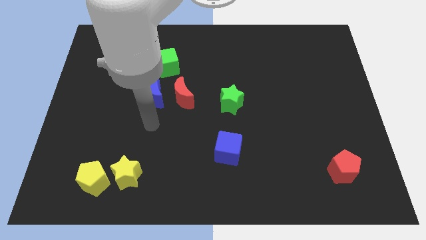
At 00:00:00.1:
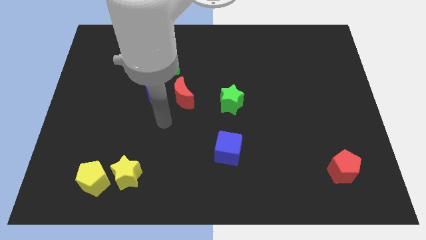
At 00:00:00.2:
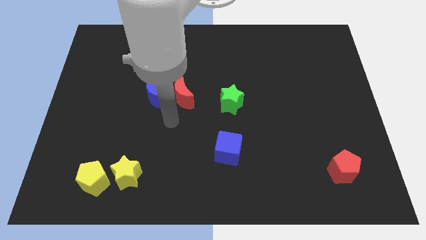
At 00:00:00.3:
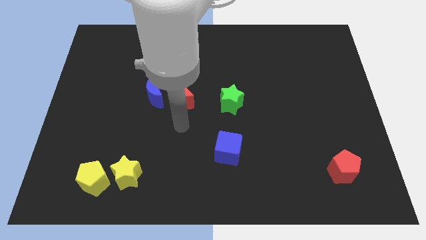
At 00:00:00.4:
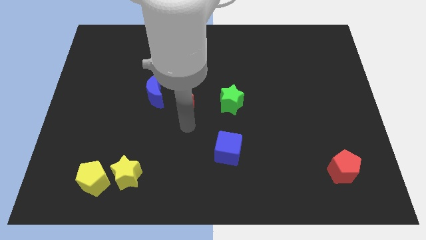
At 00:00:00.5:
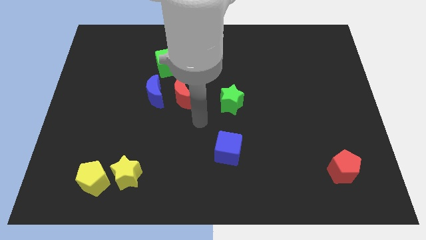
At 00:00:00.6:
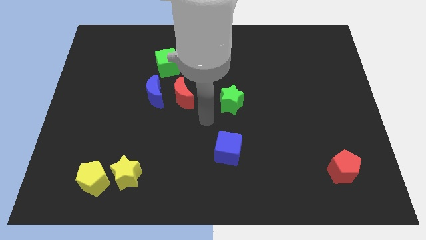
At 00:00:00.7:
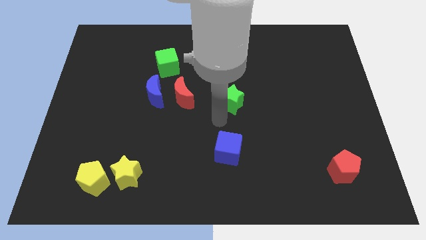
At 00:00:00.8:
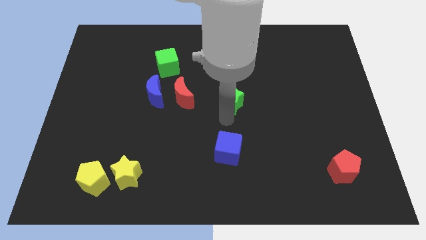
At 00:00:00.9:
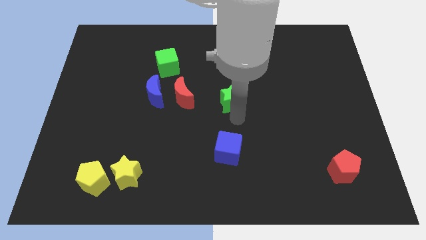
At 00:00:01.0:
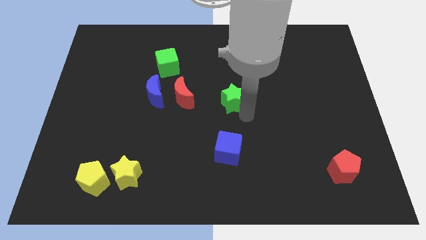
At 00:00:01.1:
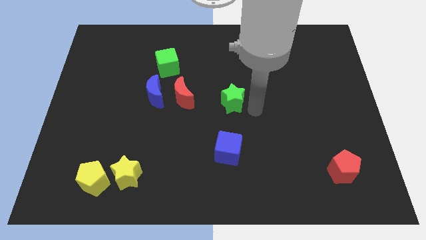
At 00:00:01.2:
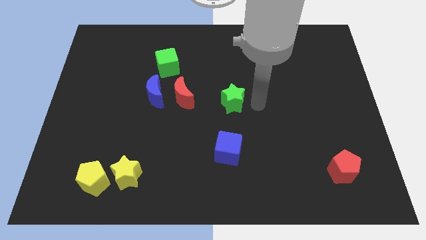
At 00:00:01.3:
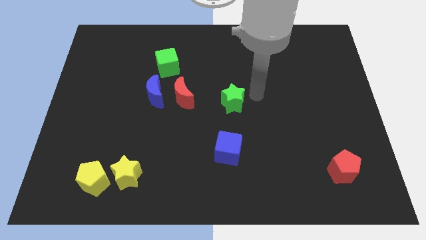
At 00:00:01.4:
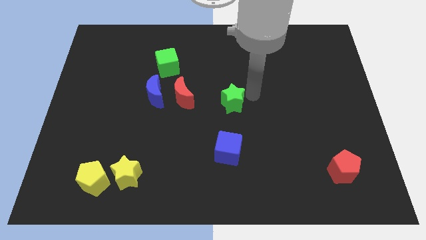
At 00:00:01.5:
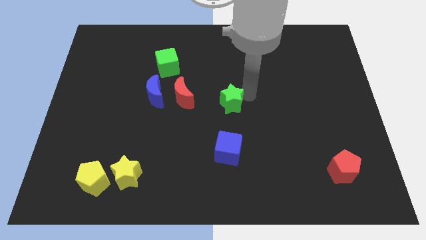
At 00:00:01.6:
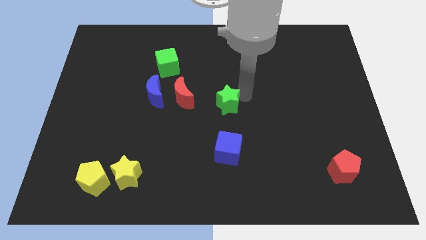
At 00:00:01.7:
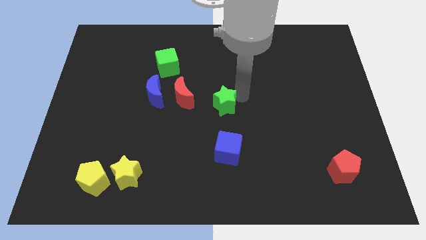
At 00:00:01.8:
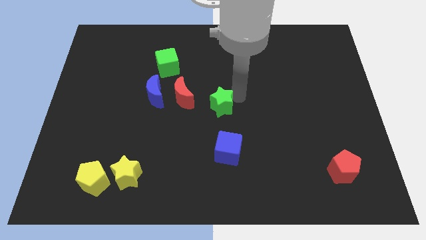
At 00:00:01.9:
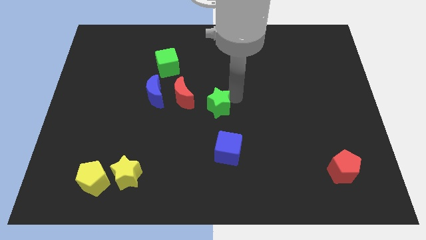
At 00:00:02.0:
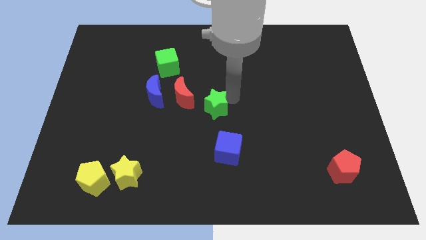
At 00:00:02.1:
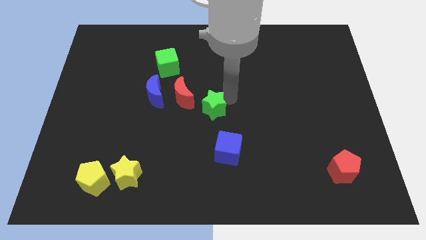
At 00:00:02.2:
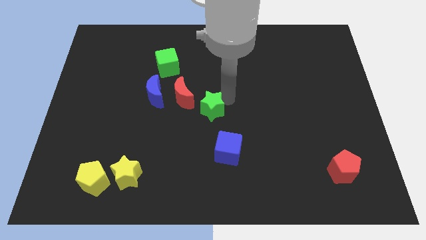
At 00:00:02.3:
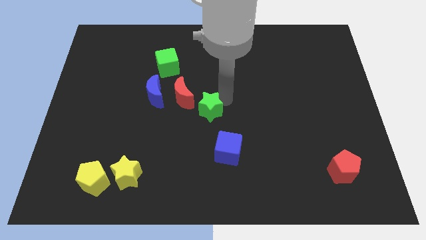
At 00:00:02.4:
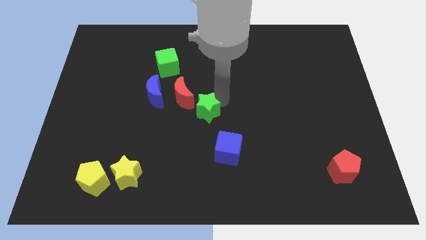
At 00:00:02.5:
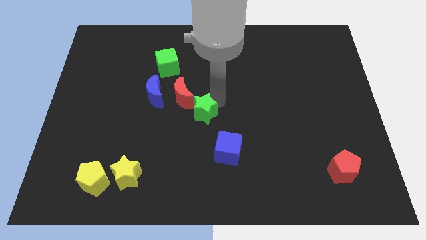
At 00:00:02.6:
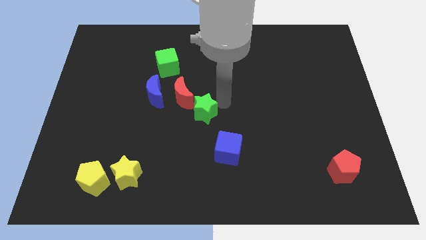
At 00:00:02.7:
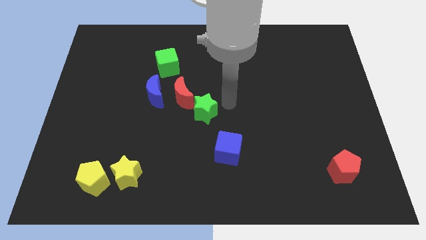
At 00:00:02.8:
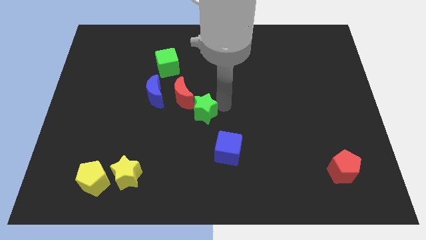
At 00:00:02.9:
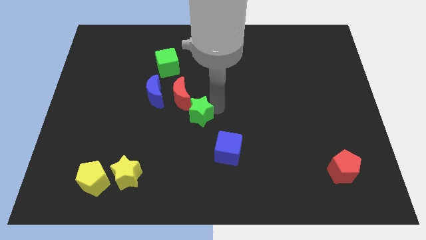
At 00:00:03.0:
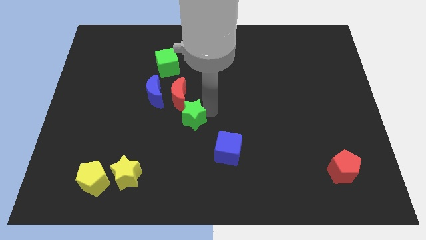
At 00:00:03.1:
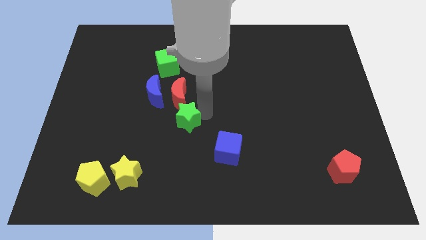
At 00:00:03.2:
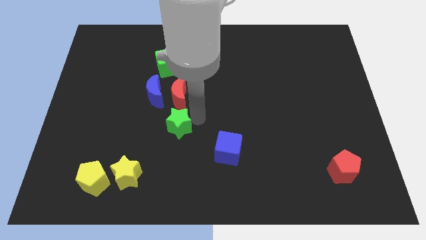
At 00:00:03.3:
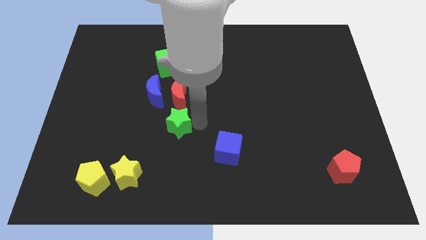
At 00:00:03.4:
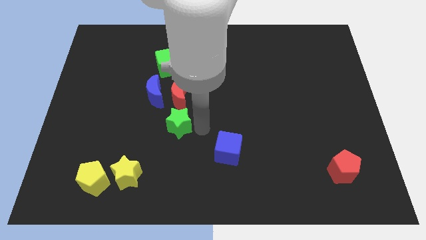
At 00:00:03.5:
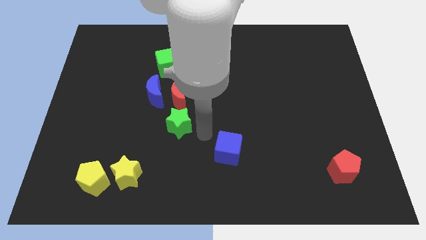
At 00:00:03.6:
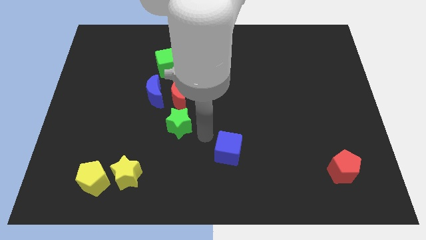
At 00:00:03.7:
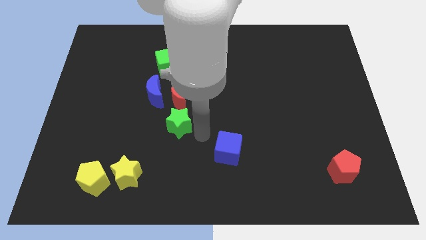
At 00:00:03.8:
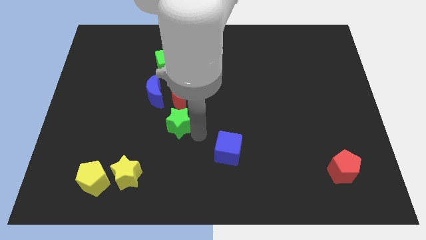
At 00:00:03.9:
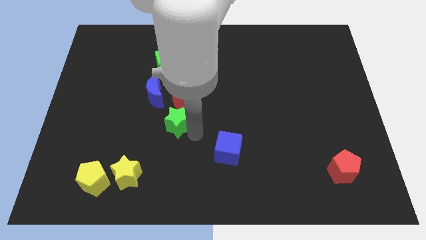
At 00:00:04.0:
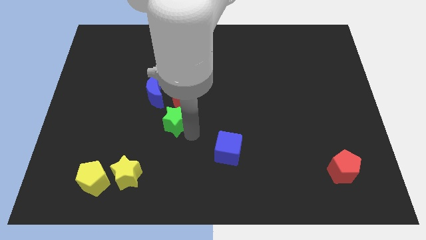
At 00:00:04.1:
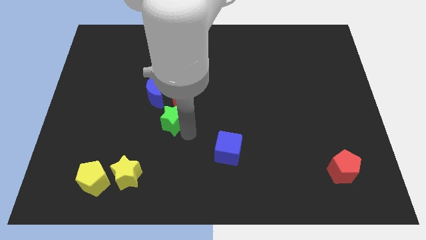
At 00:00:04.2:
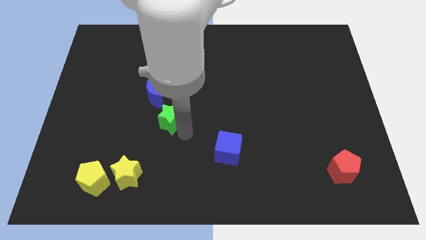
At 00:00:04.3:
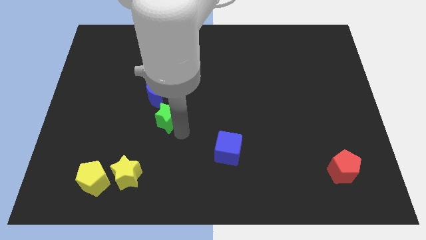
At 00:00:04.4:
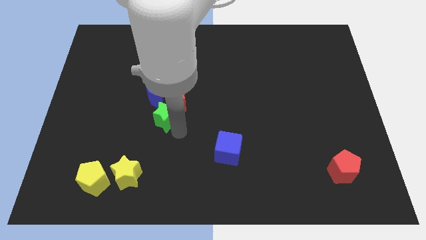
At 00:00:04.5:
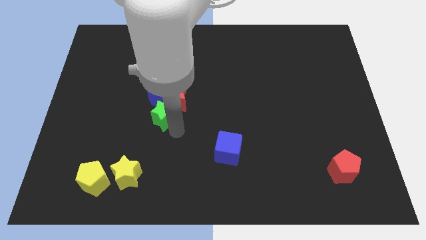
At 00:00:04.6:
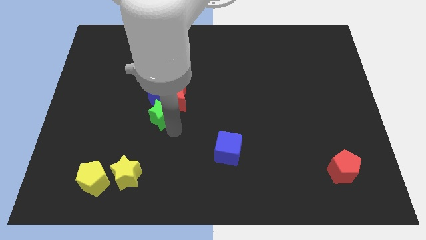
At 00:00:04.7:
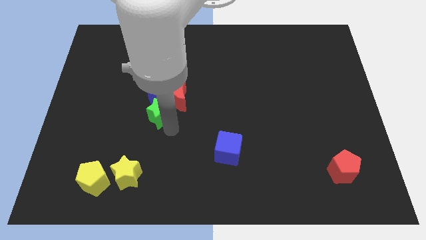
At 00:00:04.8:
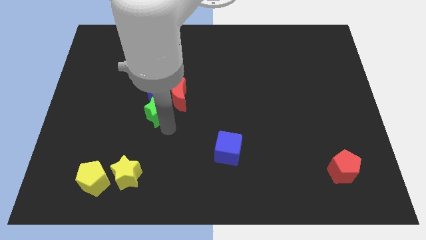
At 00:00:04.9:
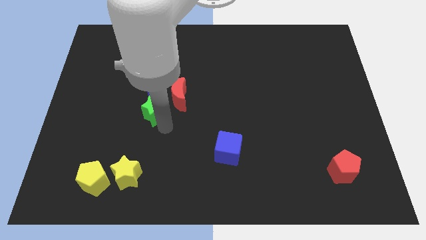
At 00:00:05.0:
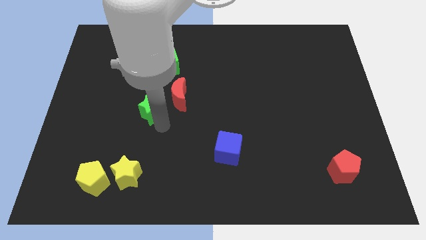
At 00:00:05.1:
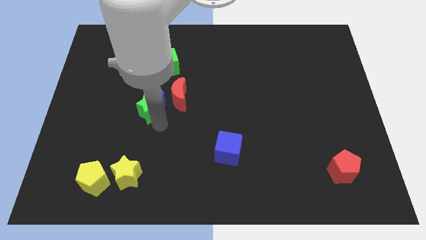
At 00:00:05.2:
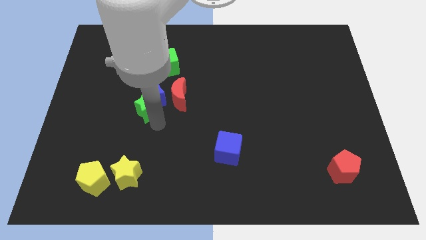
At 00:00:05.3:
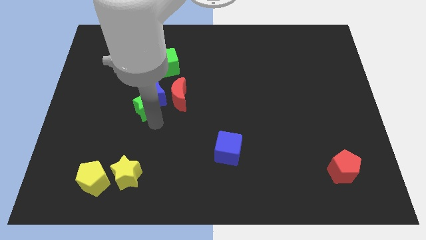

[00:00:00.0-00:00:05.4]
slide the green star left

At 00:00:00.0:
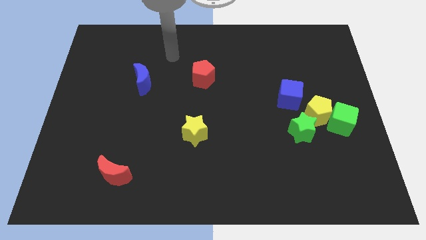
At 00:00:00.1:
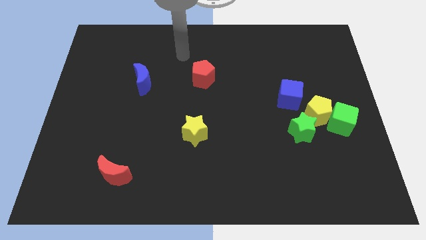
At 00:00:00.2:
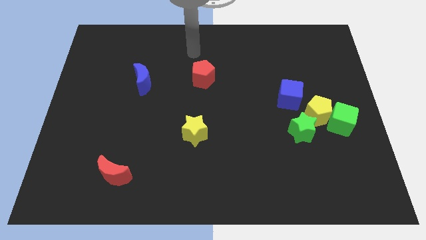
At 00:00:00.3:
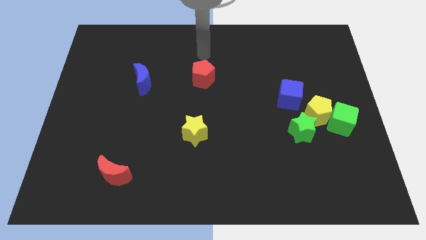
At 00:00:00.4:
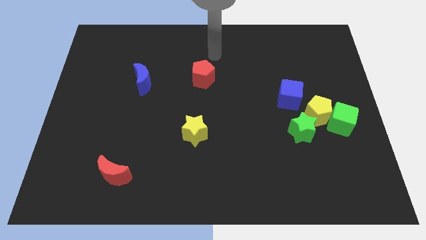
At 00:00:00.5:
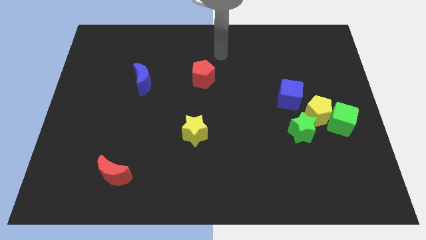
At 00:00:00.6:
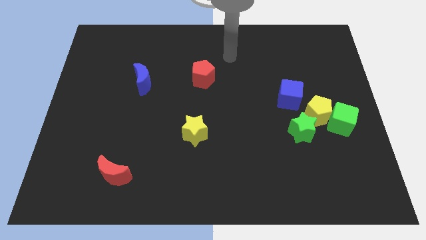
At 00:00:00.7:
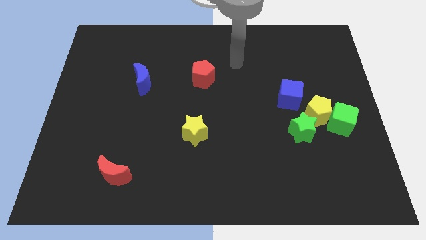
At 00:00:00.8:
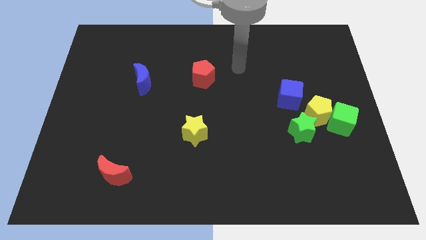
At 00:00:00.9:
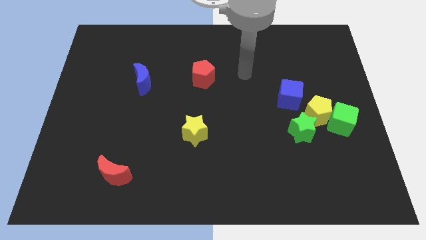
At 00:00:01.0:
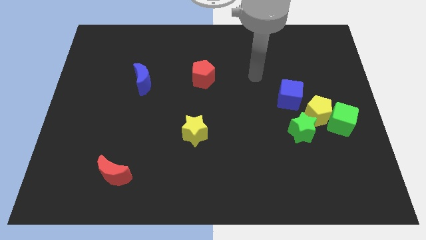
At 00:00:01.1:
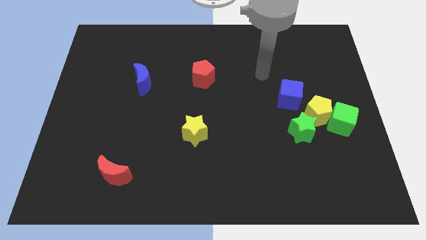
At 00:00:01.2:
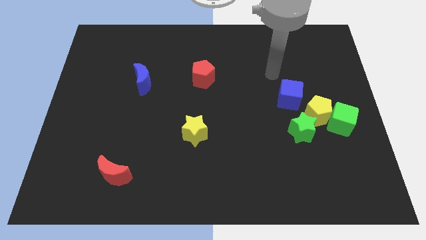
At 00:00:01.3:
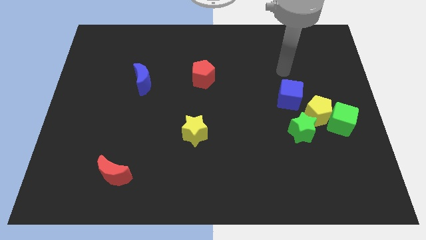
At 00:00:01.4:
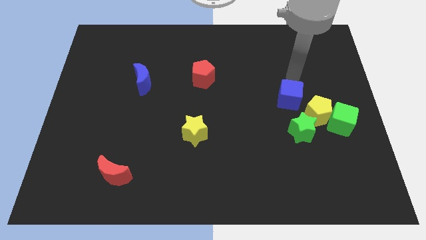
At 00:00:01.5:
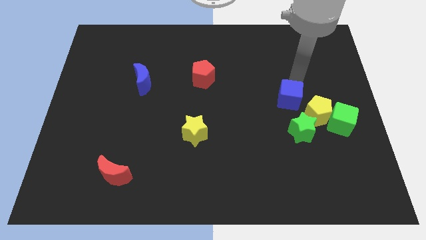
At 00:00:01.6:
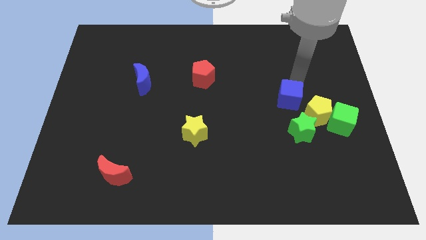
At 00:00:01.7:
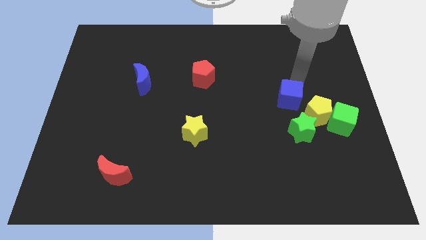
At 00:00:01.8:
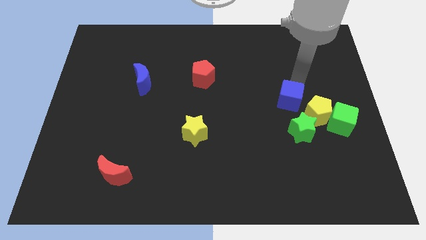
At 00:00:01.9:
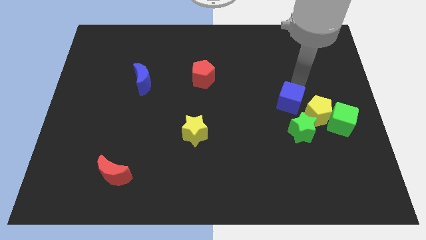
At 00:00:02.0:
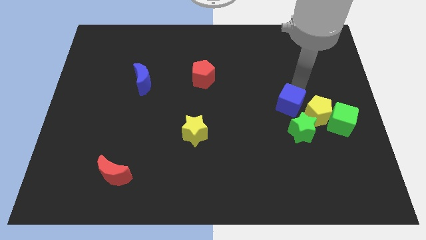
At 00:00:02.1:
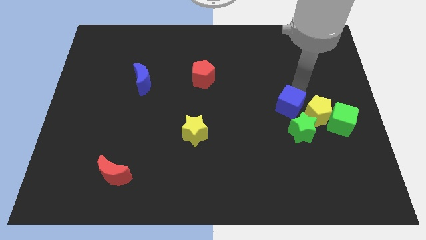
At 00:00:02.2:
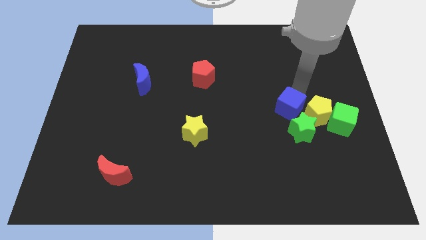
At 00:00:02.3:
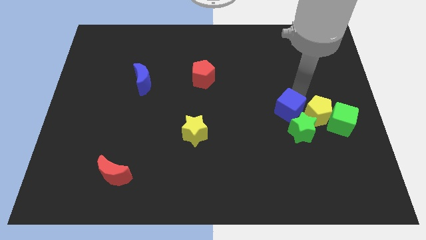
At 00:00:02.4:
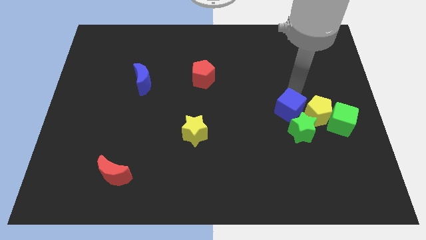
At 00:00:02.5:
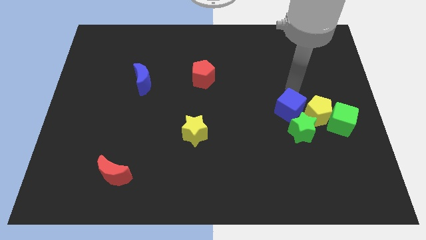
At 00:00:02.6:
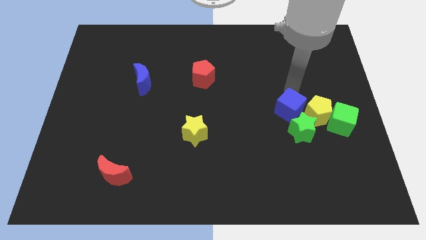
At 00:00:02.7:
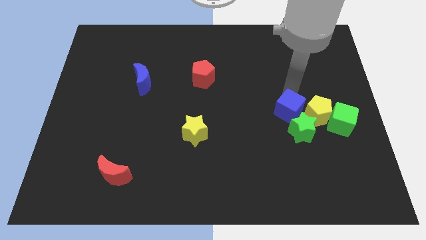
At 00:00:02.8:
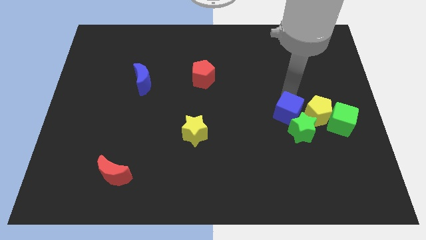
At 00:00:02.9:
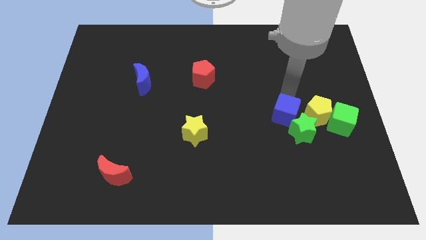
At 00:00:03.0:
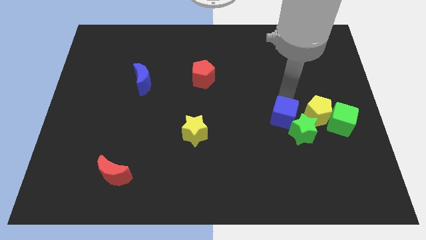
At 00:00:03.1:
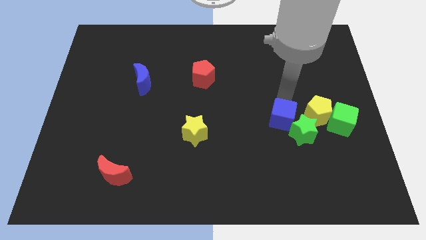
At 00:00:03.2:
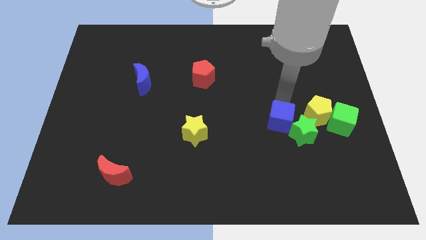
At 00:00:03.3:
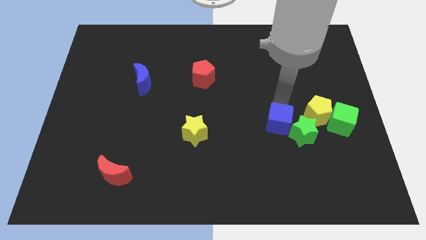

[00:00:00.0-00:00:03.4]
move the blue cube down a little
